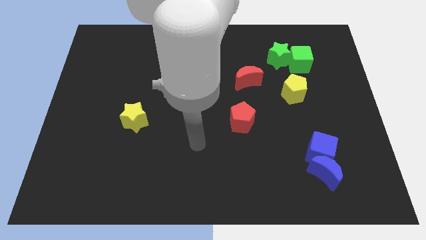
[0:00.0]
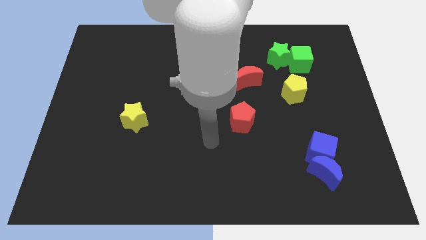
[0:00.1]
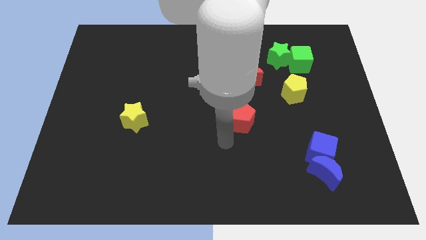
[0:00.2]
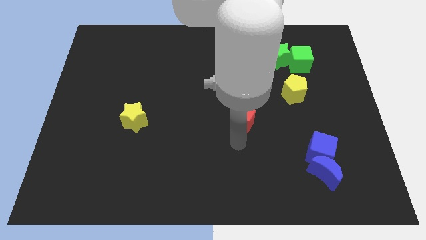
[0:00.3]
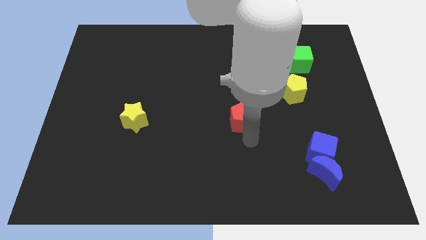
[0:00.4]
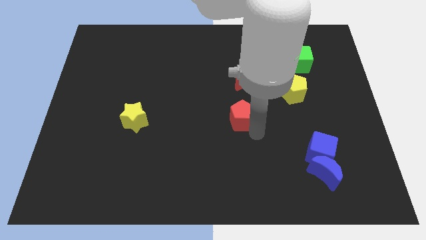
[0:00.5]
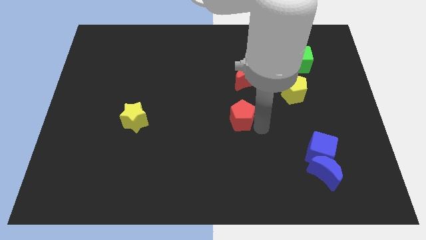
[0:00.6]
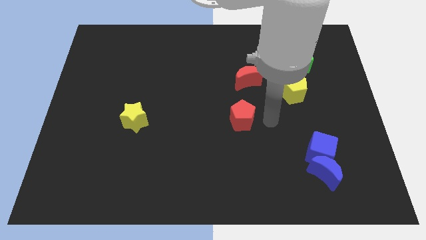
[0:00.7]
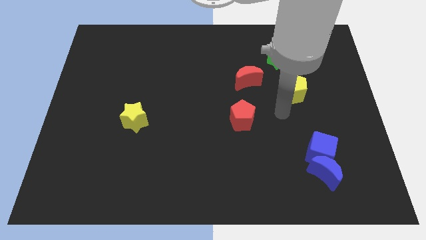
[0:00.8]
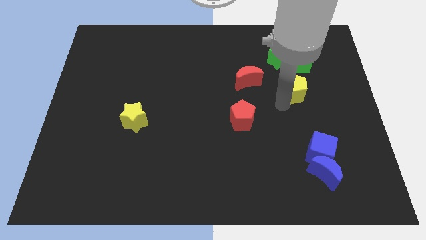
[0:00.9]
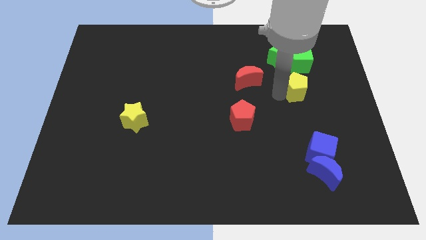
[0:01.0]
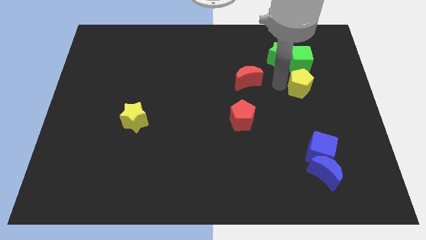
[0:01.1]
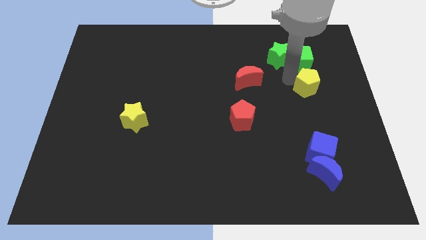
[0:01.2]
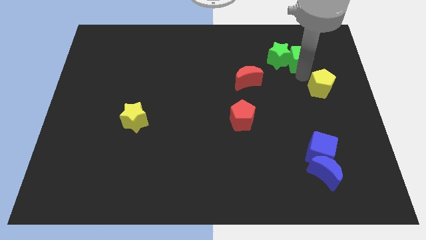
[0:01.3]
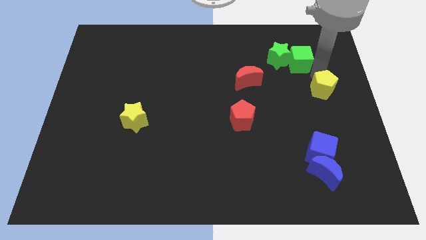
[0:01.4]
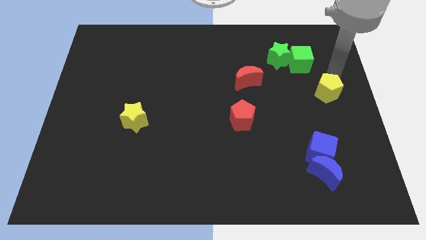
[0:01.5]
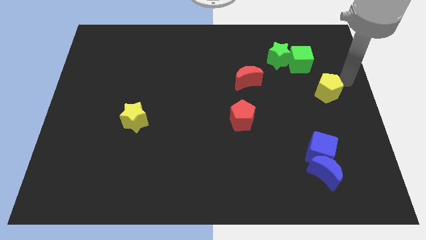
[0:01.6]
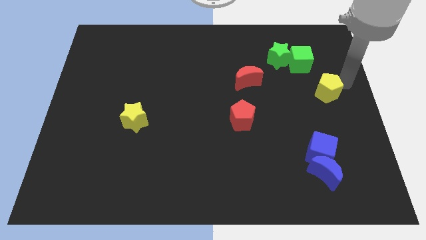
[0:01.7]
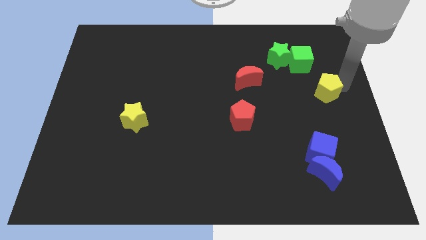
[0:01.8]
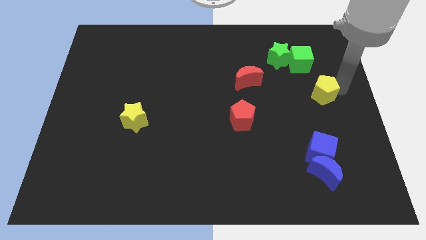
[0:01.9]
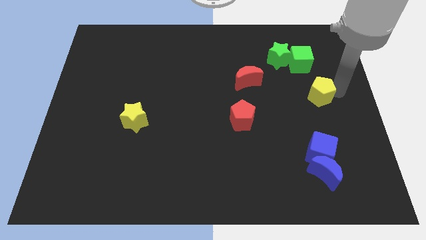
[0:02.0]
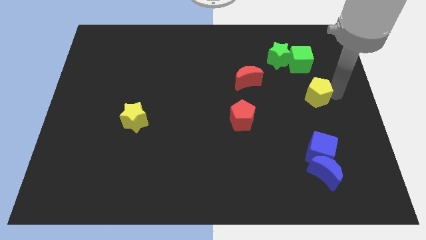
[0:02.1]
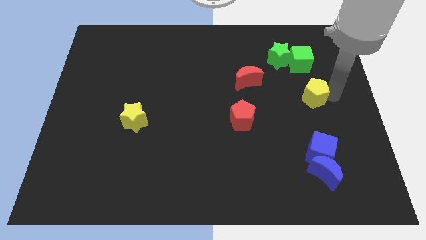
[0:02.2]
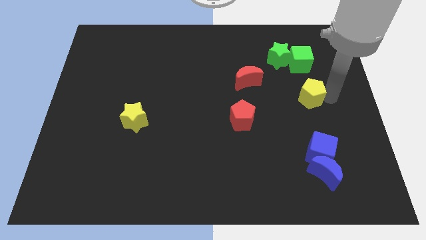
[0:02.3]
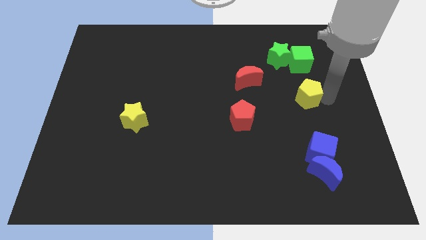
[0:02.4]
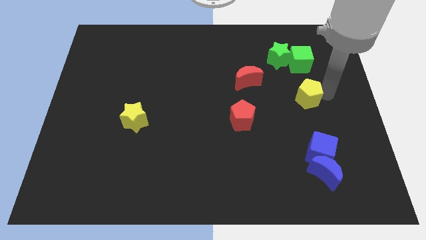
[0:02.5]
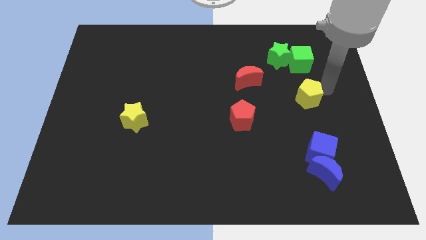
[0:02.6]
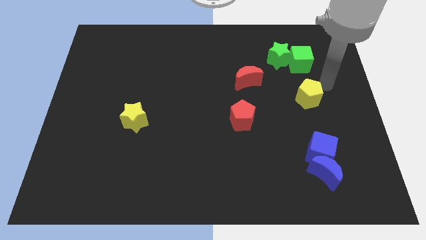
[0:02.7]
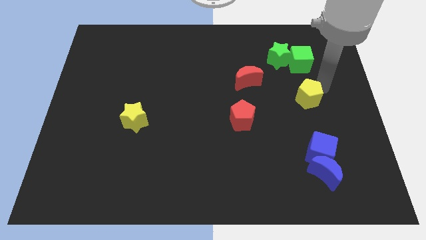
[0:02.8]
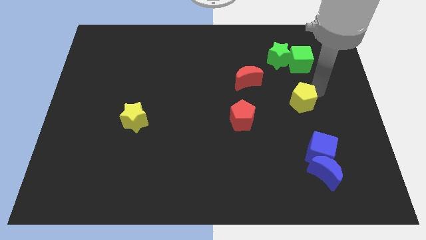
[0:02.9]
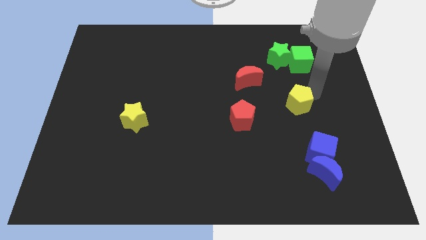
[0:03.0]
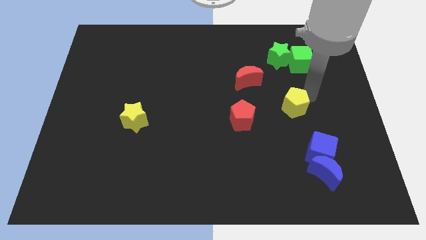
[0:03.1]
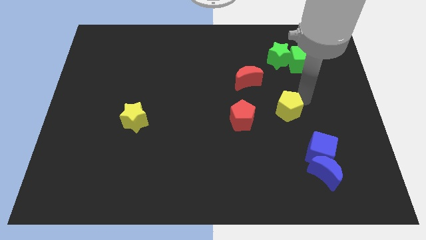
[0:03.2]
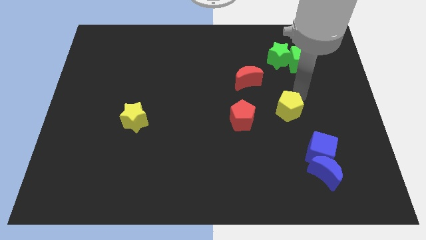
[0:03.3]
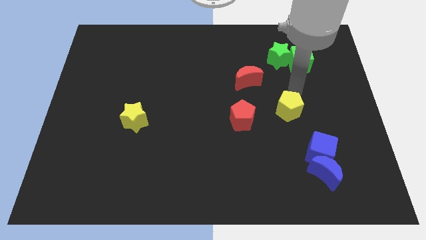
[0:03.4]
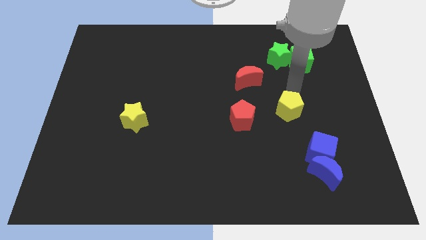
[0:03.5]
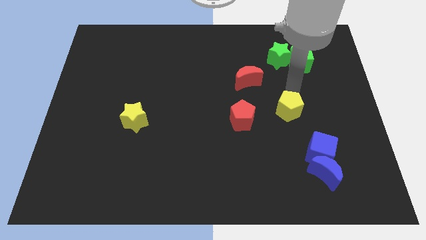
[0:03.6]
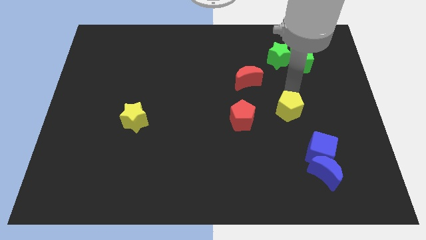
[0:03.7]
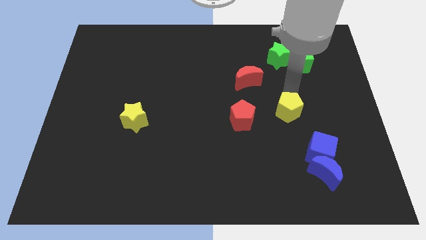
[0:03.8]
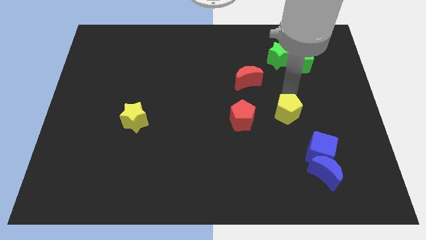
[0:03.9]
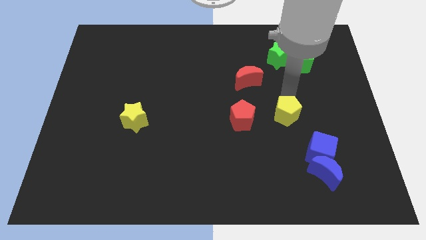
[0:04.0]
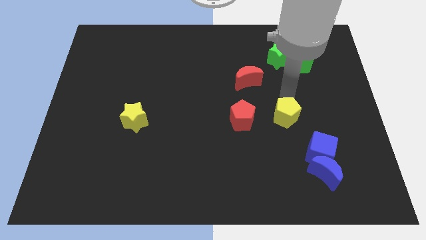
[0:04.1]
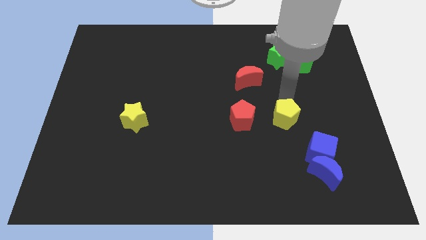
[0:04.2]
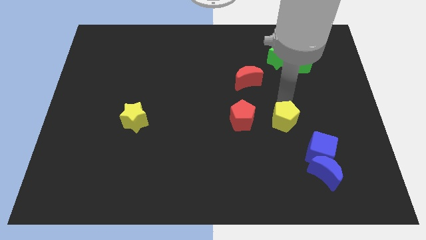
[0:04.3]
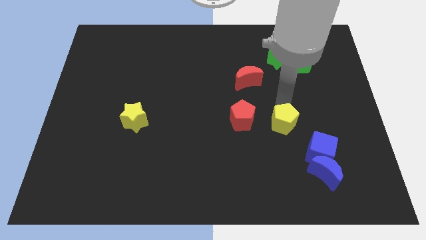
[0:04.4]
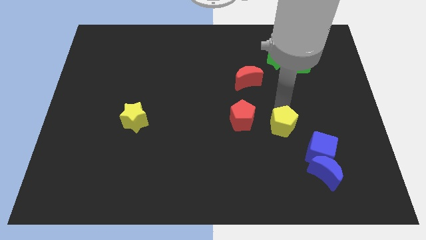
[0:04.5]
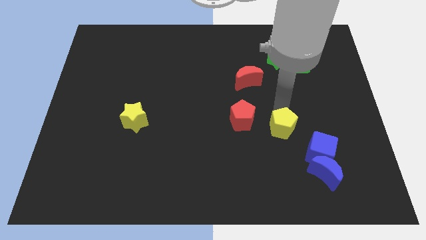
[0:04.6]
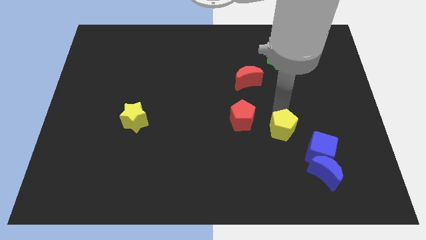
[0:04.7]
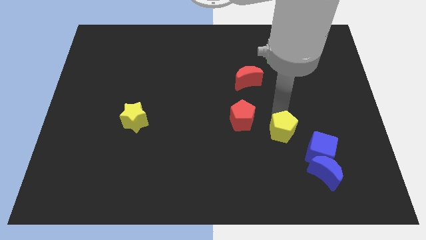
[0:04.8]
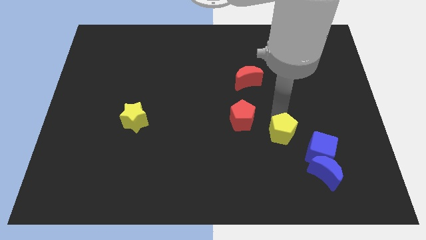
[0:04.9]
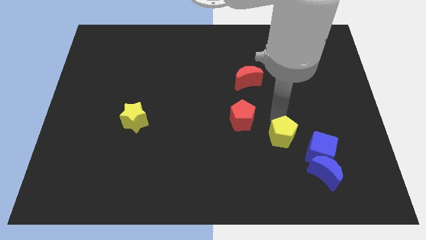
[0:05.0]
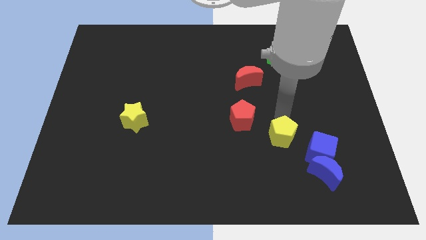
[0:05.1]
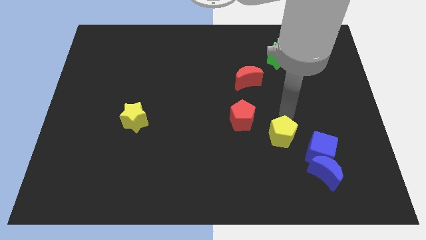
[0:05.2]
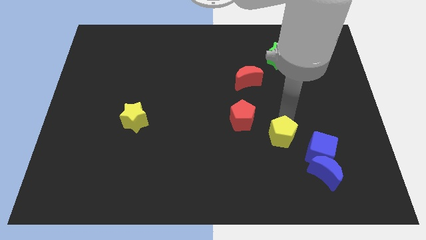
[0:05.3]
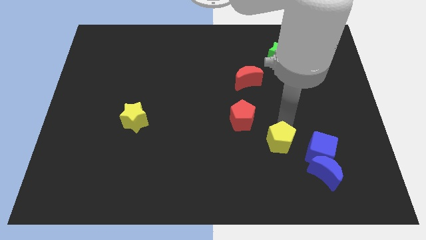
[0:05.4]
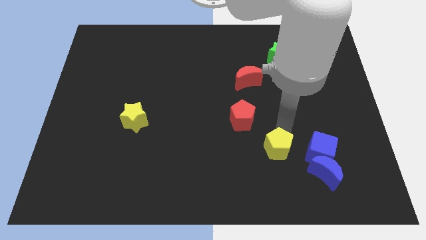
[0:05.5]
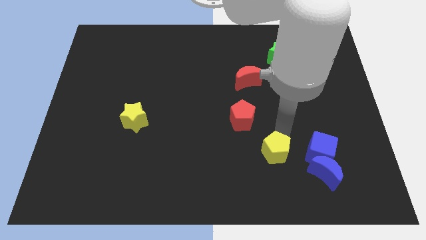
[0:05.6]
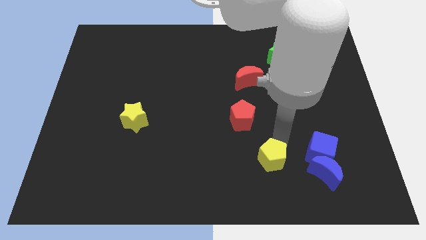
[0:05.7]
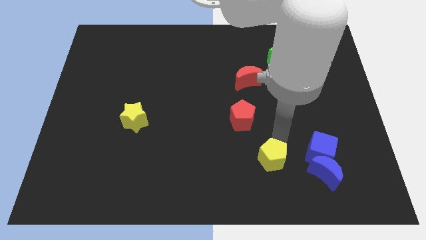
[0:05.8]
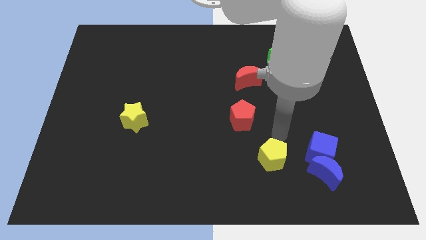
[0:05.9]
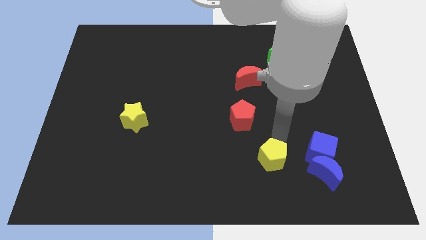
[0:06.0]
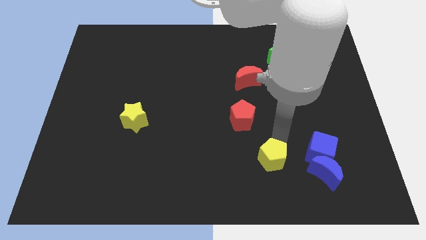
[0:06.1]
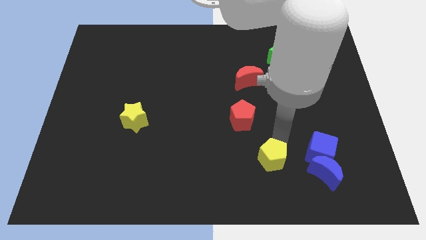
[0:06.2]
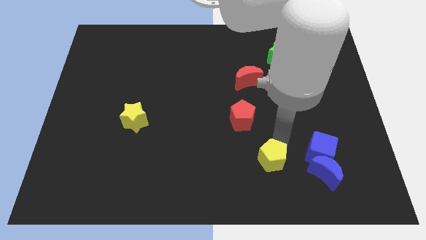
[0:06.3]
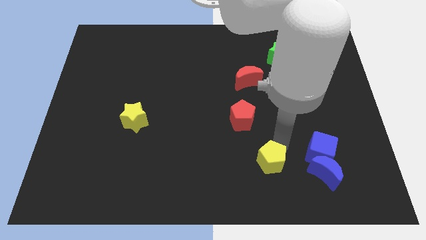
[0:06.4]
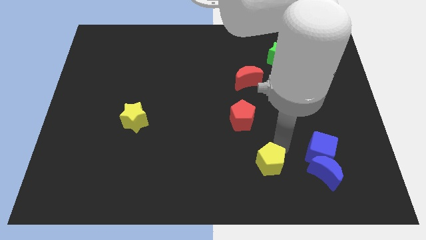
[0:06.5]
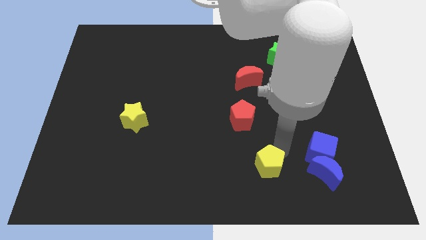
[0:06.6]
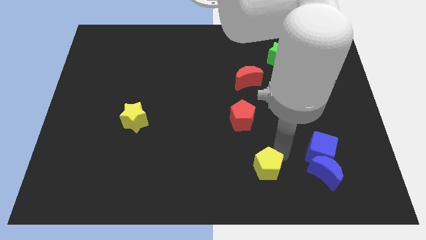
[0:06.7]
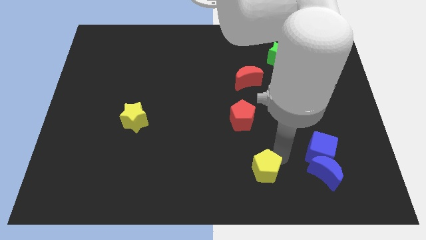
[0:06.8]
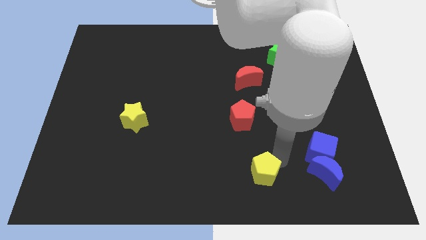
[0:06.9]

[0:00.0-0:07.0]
slide the yellow pentagon to the bottom

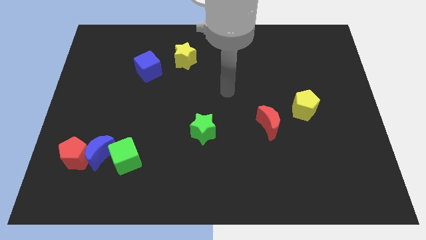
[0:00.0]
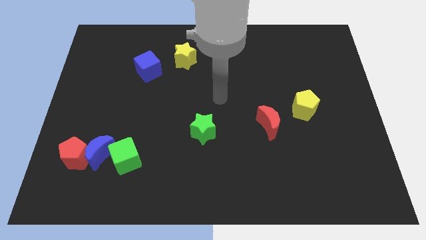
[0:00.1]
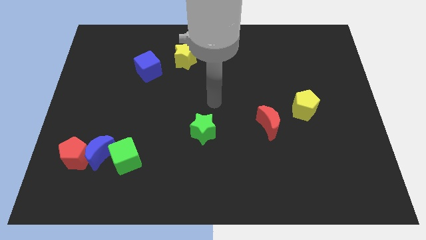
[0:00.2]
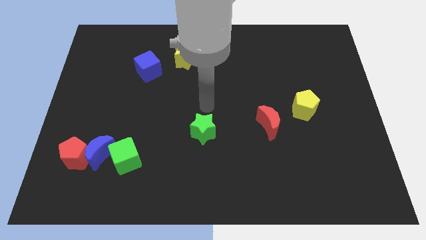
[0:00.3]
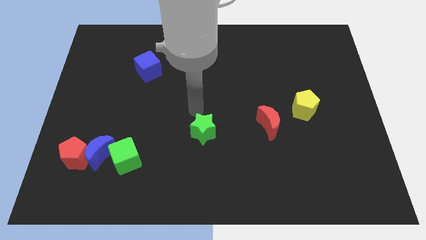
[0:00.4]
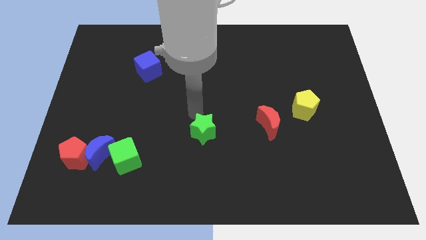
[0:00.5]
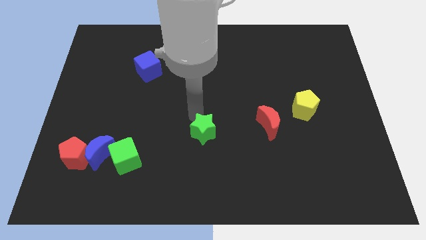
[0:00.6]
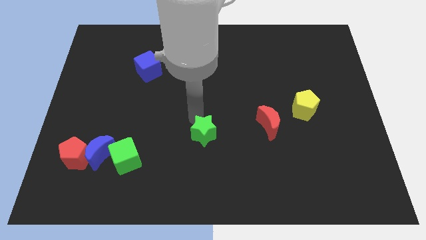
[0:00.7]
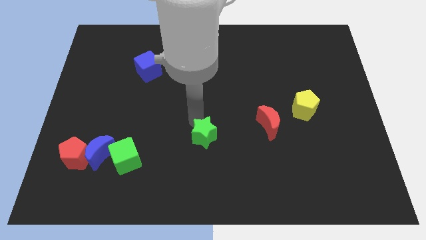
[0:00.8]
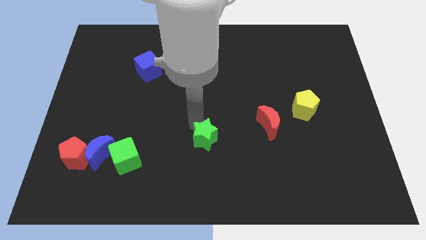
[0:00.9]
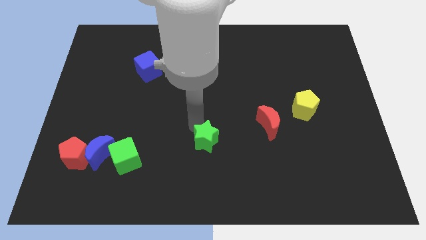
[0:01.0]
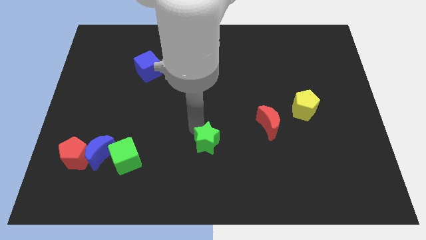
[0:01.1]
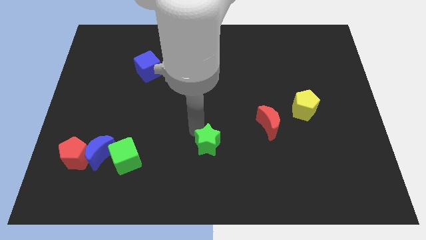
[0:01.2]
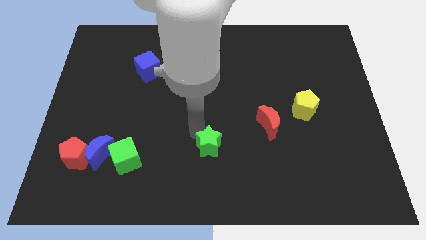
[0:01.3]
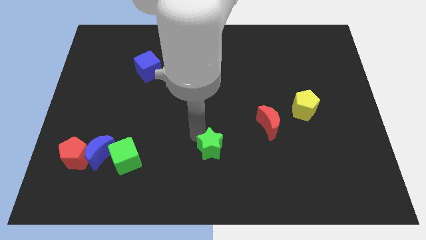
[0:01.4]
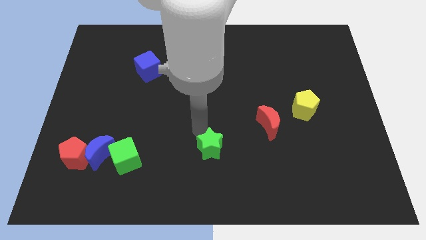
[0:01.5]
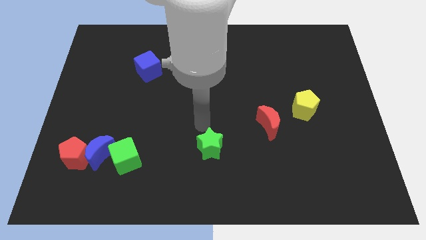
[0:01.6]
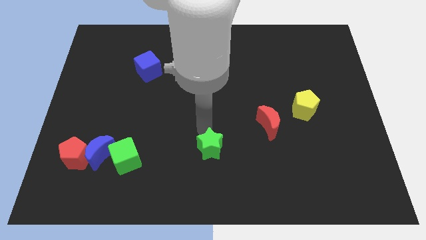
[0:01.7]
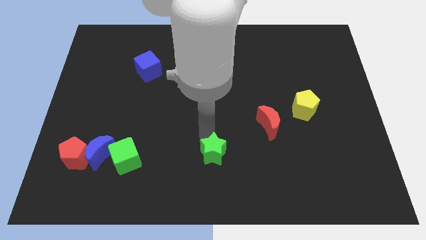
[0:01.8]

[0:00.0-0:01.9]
slide the green star to the bottom
